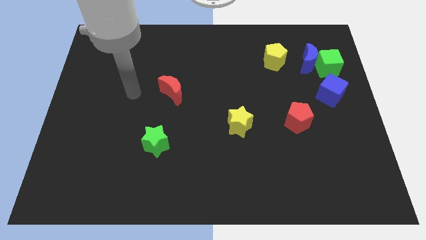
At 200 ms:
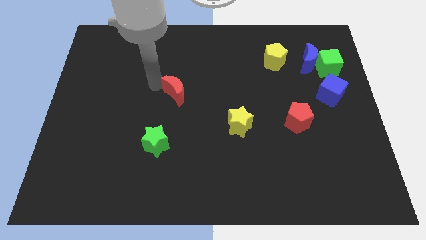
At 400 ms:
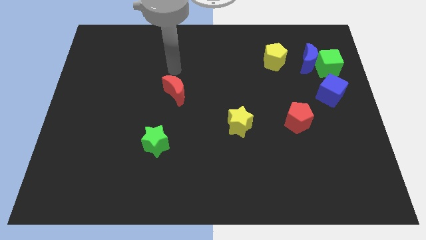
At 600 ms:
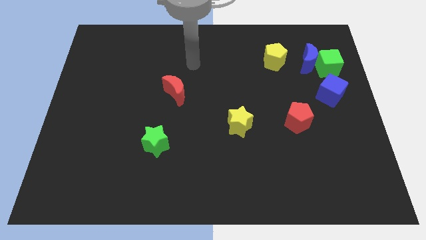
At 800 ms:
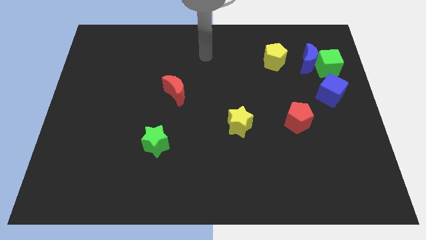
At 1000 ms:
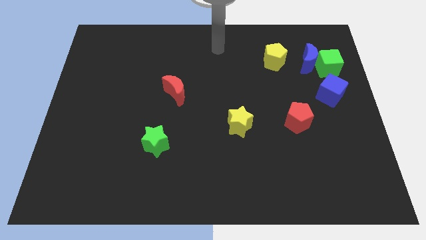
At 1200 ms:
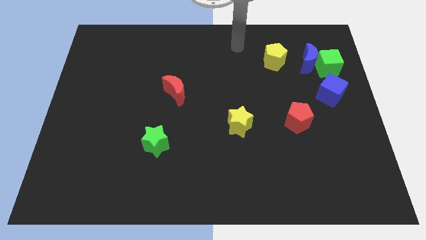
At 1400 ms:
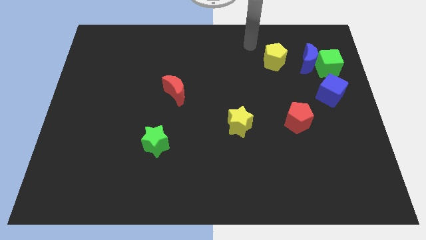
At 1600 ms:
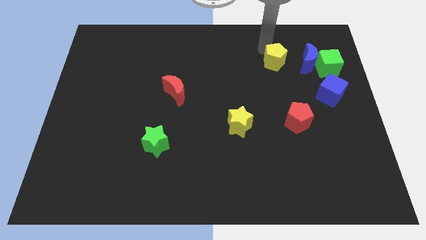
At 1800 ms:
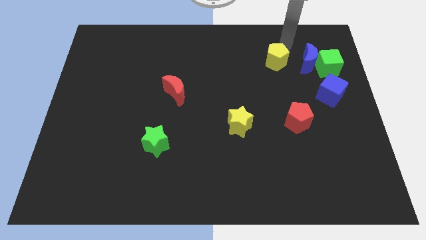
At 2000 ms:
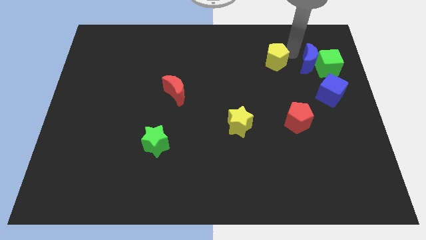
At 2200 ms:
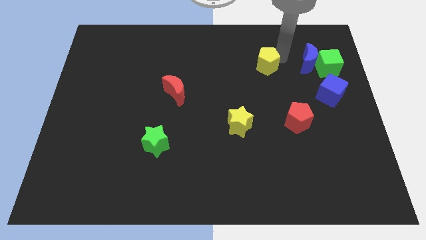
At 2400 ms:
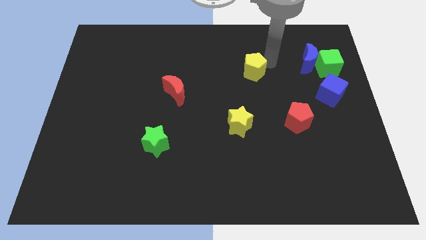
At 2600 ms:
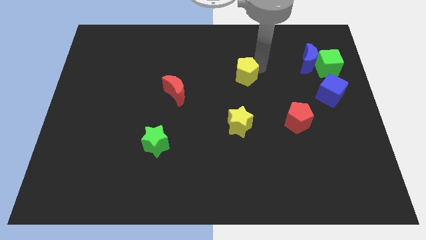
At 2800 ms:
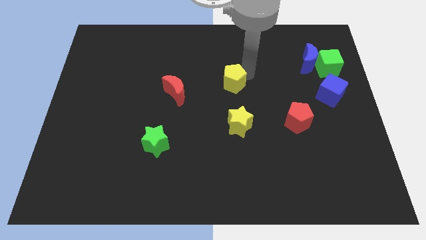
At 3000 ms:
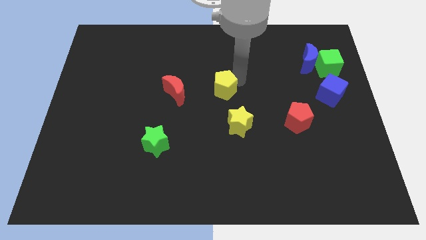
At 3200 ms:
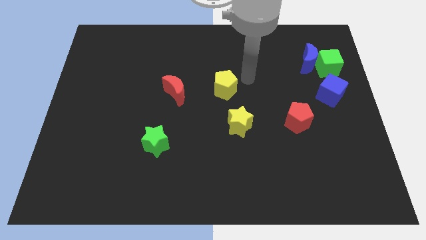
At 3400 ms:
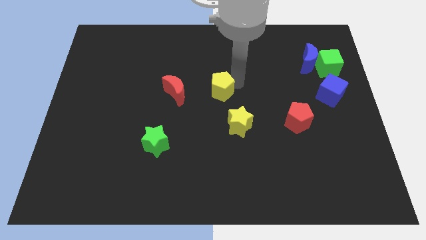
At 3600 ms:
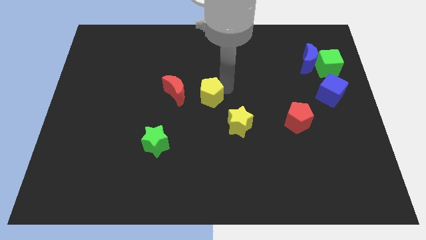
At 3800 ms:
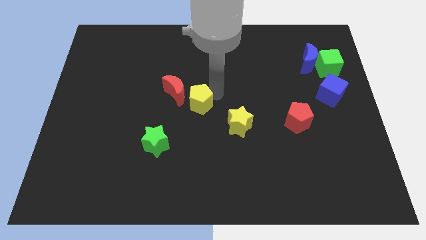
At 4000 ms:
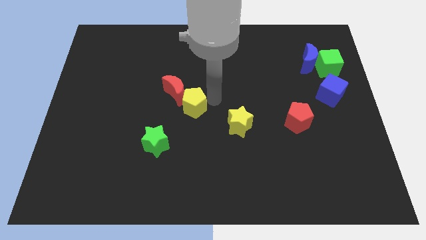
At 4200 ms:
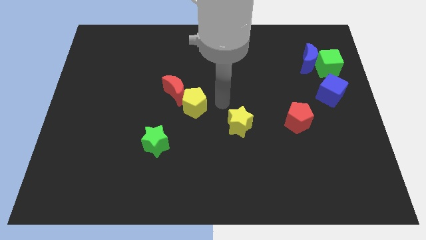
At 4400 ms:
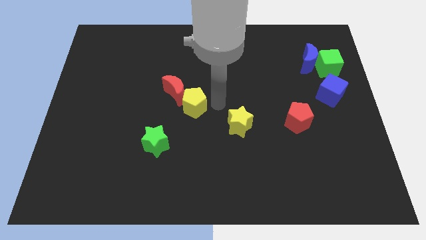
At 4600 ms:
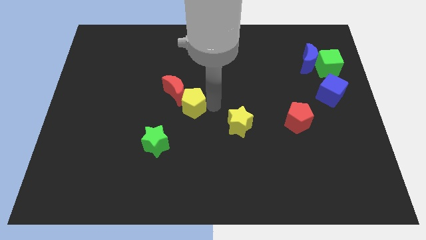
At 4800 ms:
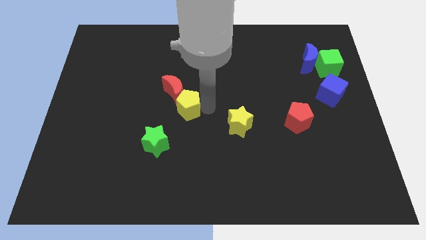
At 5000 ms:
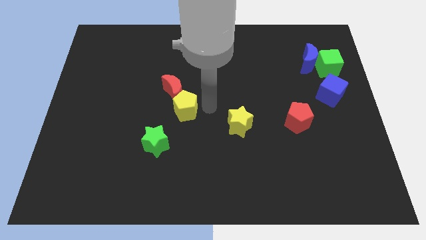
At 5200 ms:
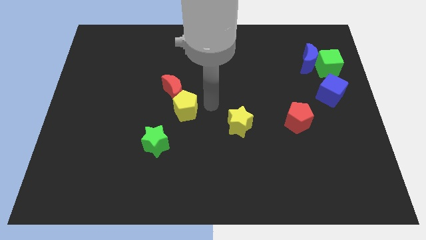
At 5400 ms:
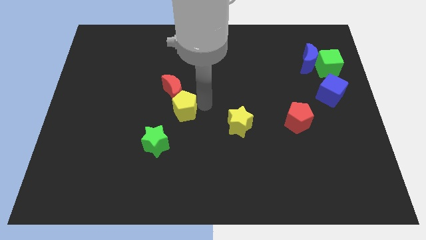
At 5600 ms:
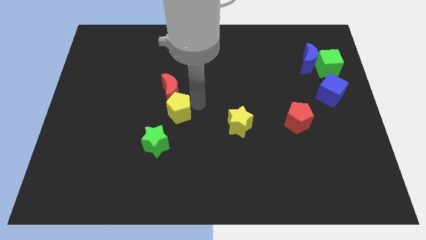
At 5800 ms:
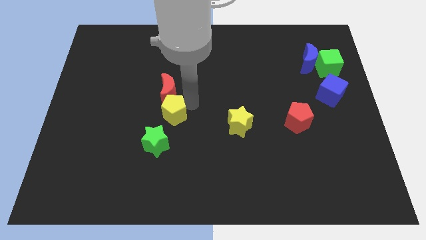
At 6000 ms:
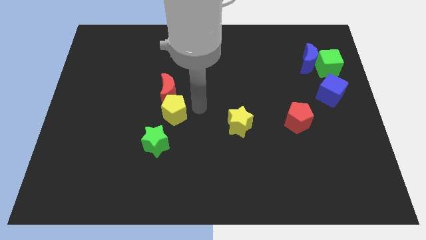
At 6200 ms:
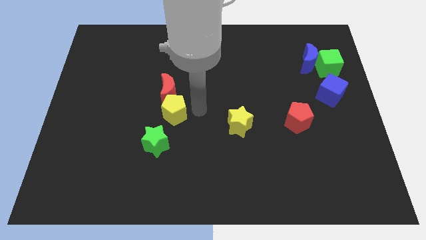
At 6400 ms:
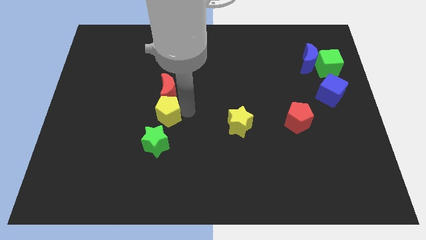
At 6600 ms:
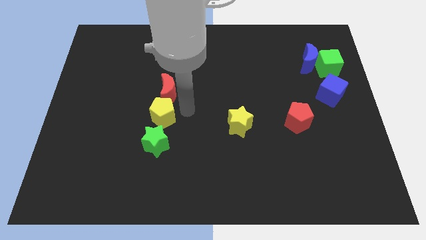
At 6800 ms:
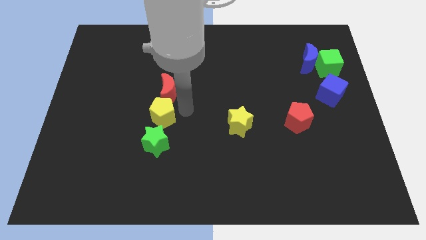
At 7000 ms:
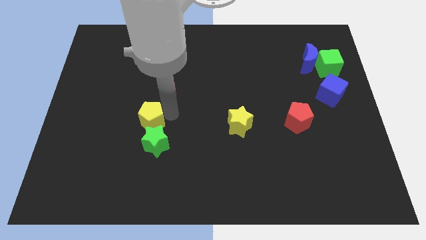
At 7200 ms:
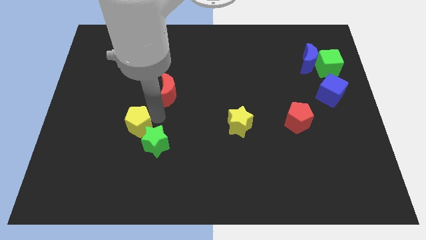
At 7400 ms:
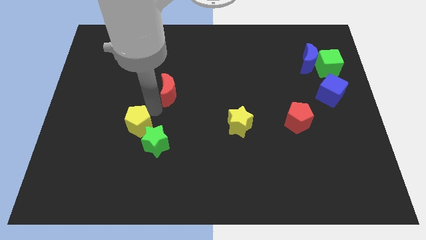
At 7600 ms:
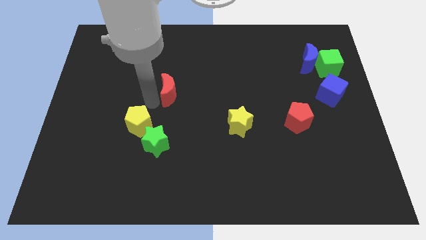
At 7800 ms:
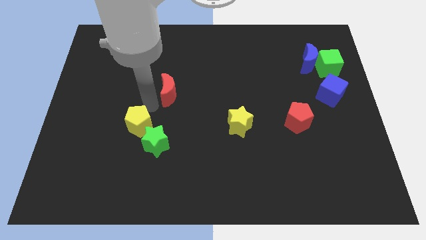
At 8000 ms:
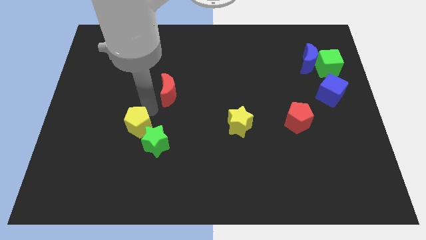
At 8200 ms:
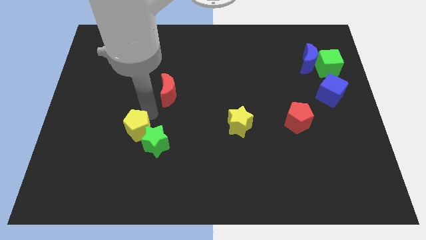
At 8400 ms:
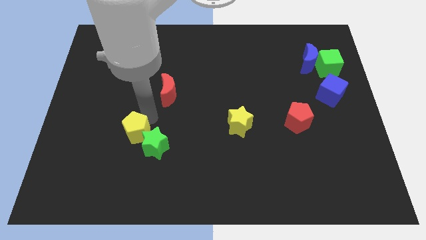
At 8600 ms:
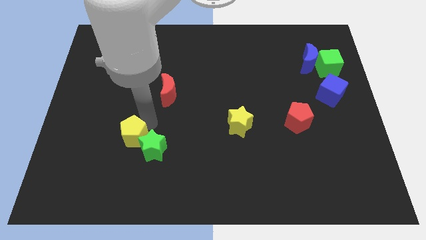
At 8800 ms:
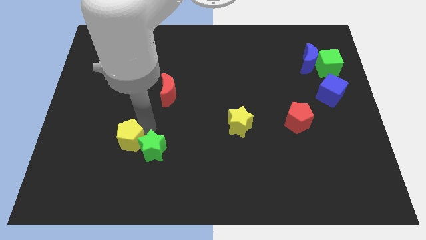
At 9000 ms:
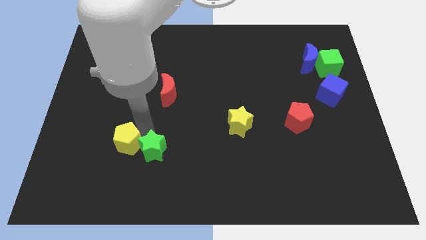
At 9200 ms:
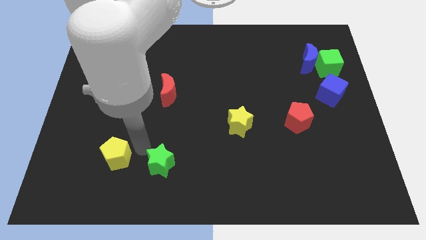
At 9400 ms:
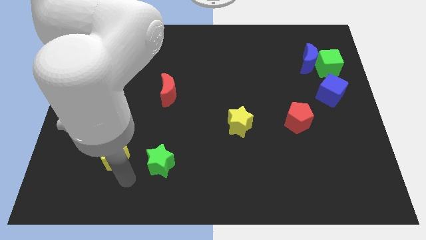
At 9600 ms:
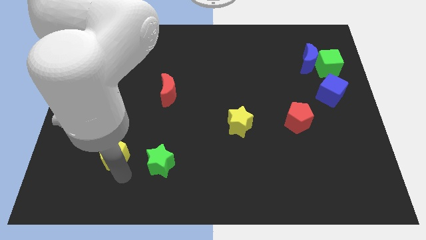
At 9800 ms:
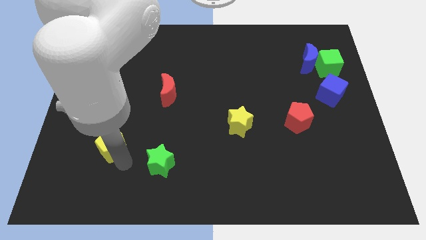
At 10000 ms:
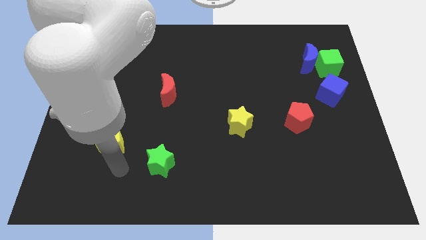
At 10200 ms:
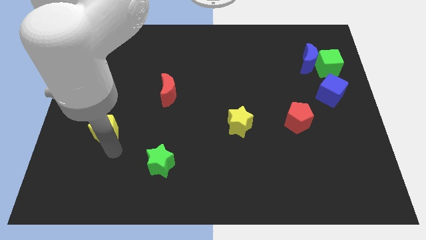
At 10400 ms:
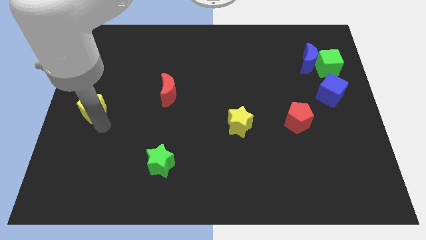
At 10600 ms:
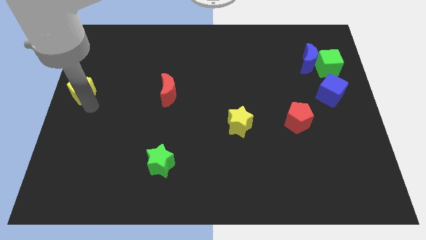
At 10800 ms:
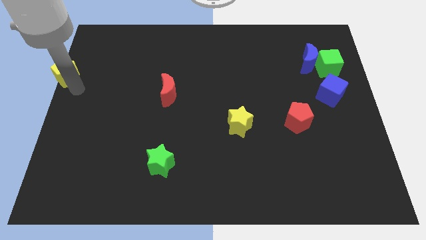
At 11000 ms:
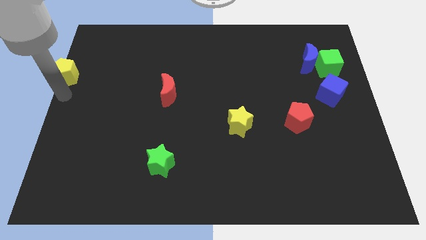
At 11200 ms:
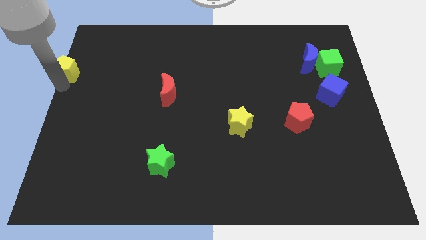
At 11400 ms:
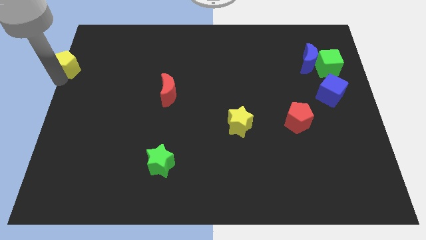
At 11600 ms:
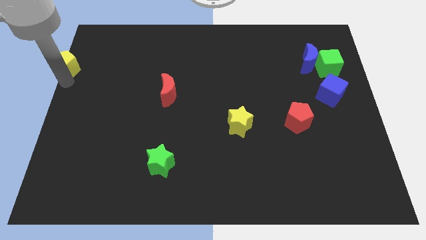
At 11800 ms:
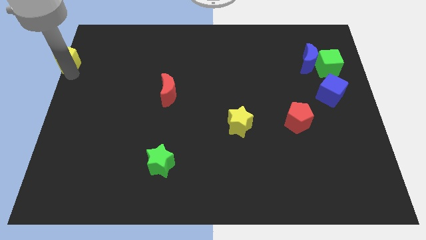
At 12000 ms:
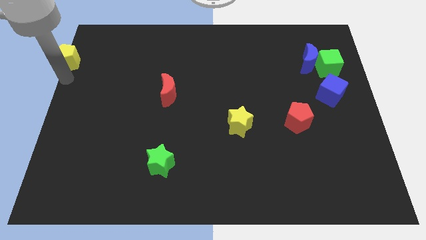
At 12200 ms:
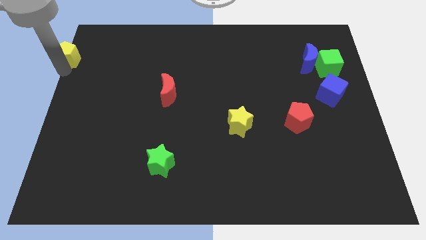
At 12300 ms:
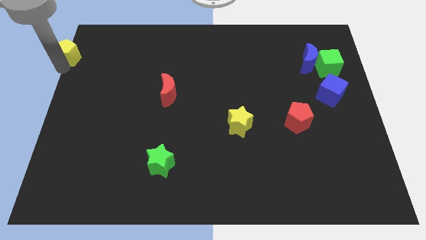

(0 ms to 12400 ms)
slide the yellow pentagon to the top left
